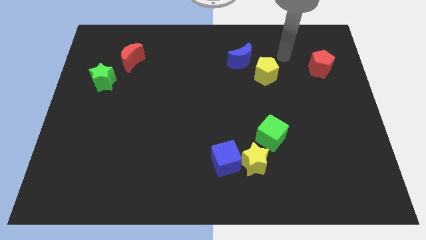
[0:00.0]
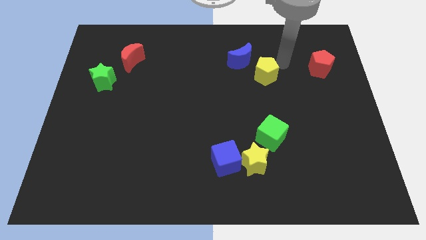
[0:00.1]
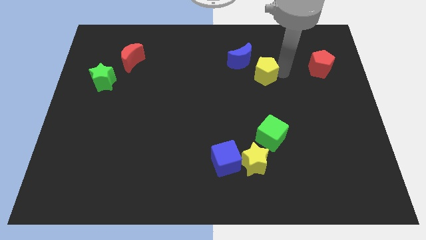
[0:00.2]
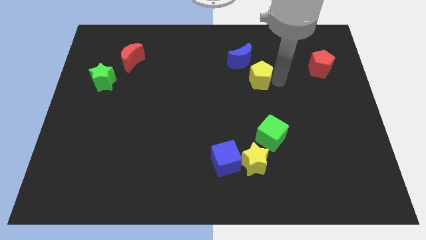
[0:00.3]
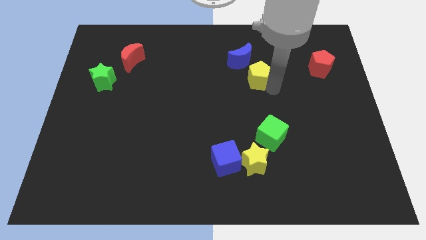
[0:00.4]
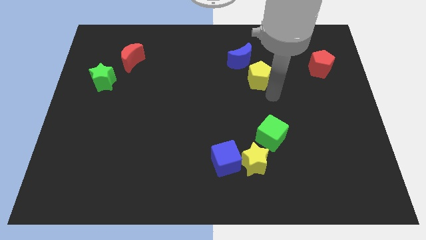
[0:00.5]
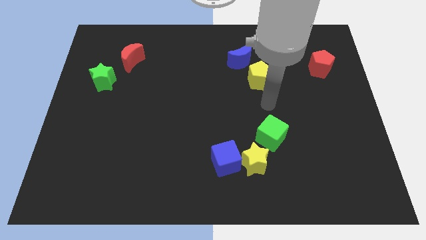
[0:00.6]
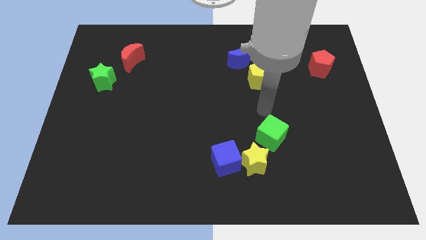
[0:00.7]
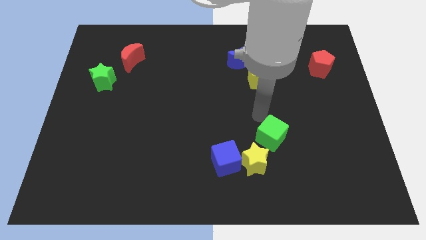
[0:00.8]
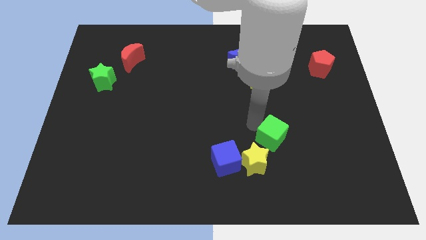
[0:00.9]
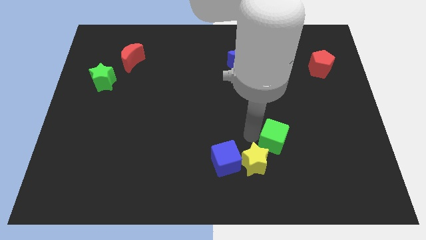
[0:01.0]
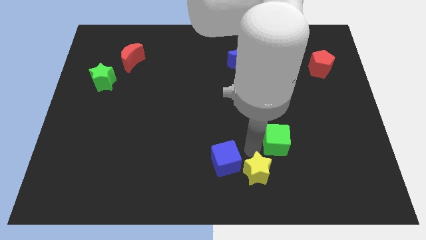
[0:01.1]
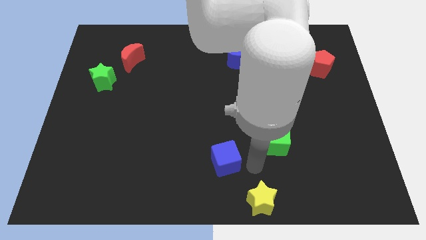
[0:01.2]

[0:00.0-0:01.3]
pull the blue cube apart from the yellow star

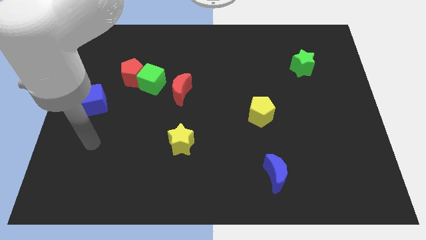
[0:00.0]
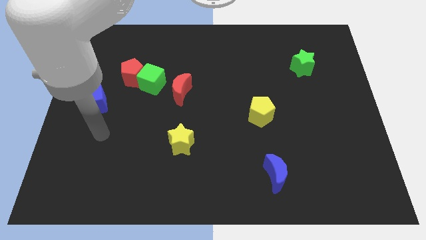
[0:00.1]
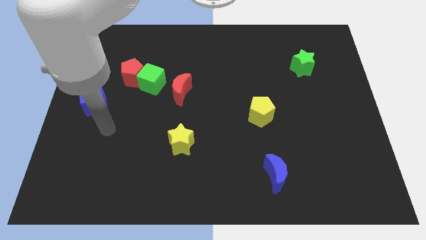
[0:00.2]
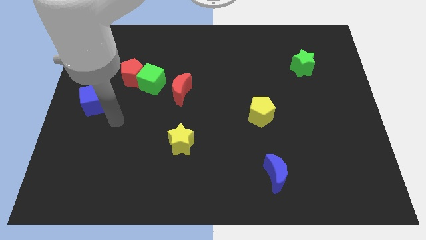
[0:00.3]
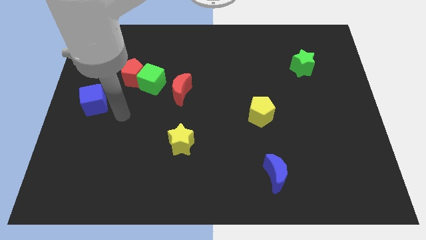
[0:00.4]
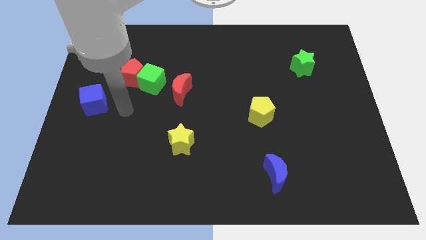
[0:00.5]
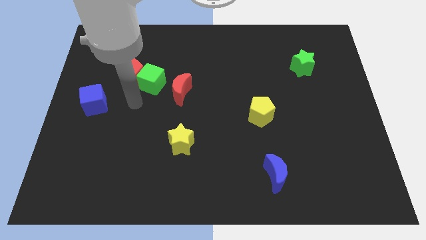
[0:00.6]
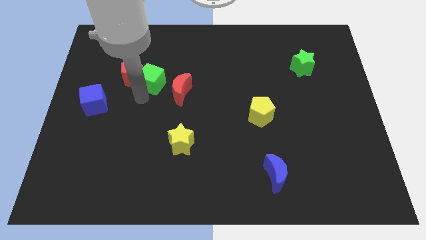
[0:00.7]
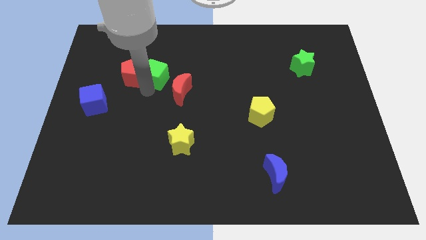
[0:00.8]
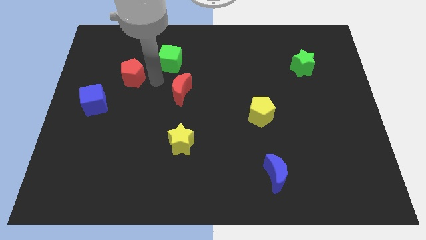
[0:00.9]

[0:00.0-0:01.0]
move the red pentagon away from the green cube

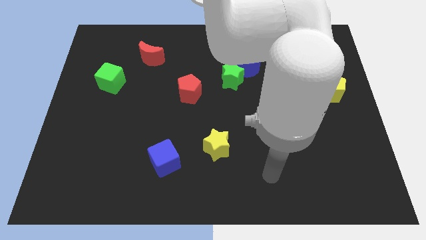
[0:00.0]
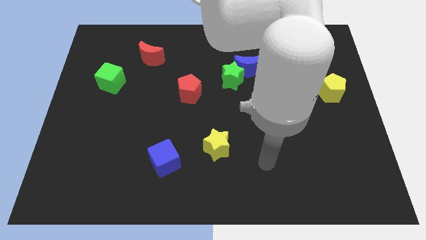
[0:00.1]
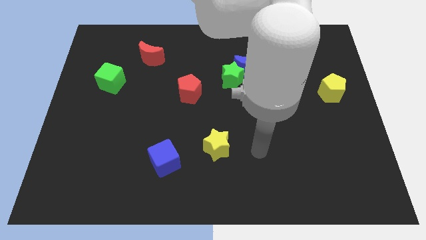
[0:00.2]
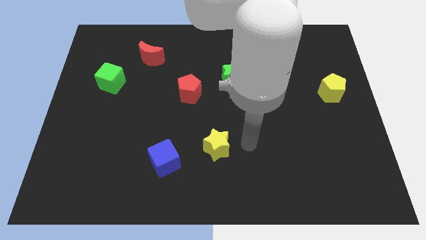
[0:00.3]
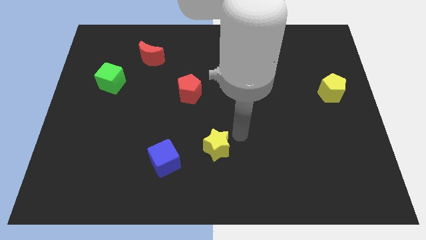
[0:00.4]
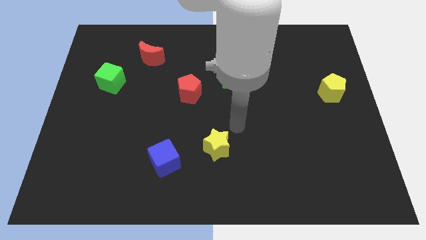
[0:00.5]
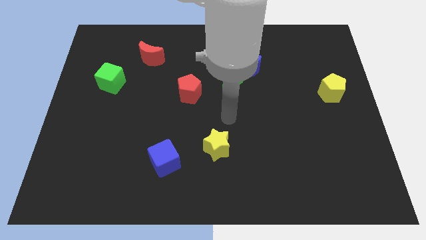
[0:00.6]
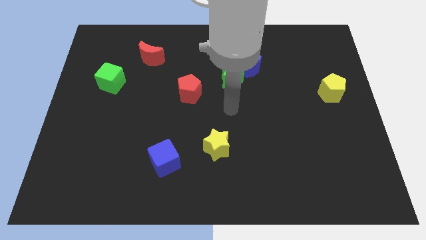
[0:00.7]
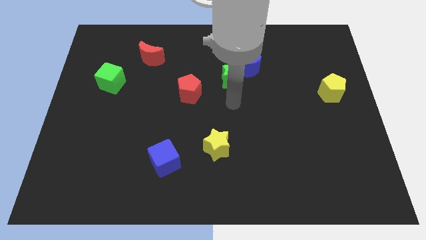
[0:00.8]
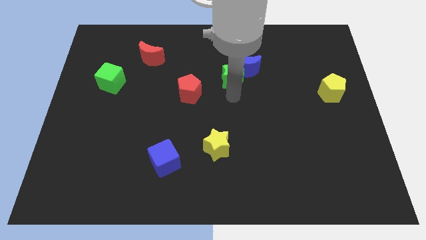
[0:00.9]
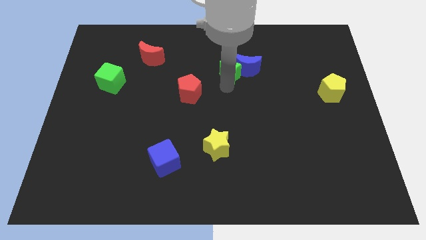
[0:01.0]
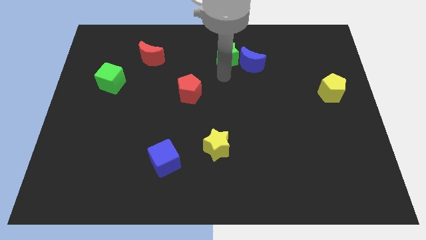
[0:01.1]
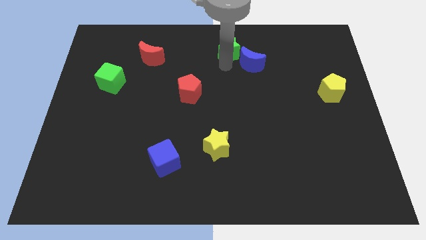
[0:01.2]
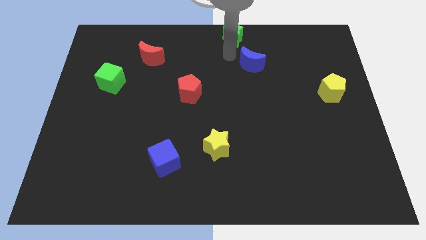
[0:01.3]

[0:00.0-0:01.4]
separate the blue moon from the green star

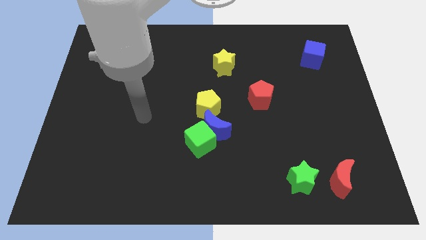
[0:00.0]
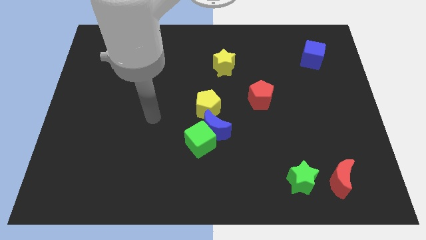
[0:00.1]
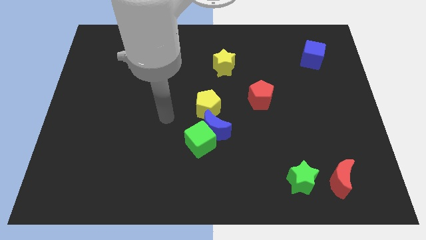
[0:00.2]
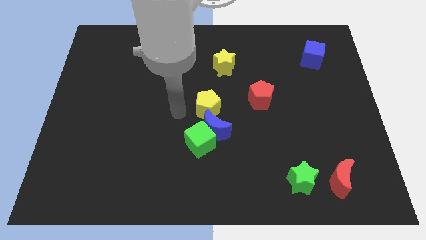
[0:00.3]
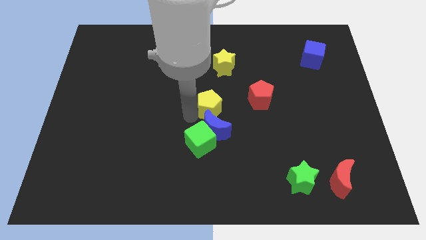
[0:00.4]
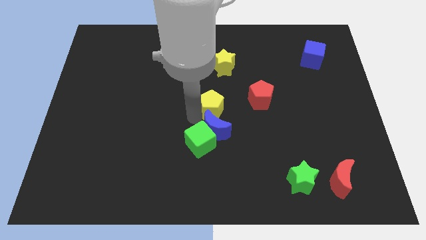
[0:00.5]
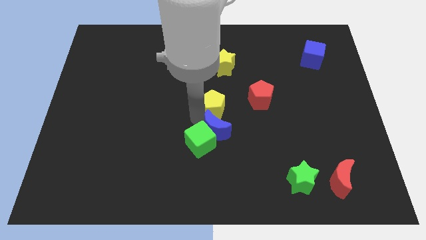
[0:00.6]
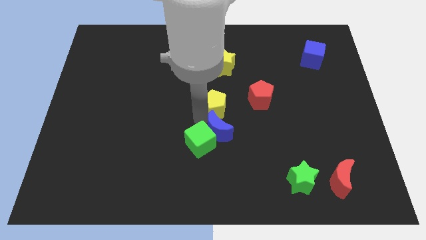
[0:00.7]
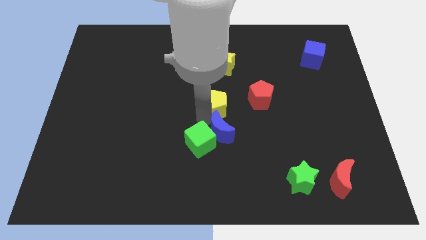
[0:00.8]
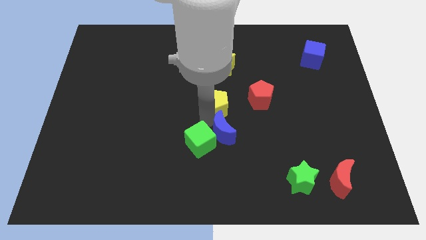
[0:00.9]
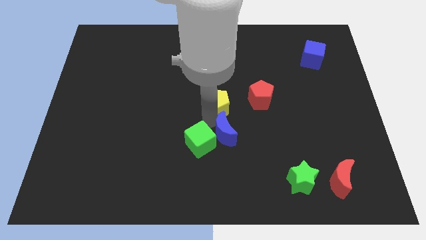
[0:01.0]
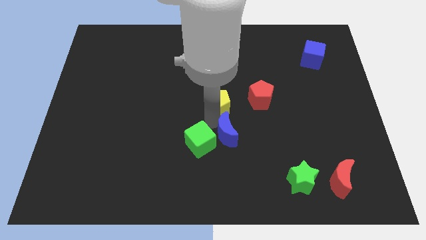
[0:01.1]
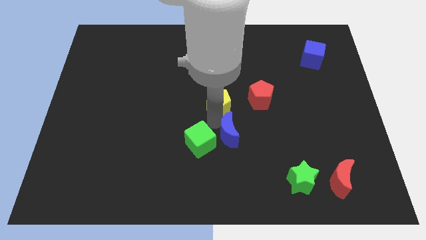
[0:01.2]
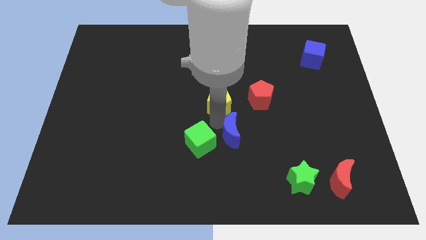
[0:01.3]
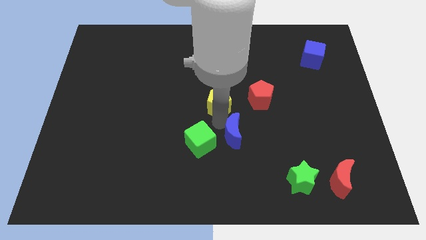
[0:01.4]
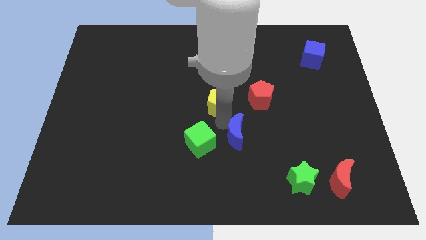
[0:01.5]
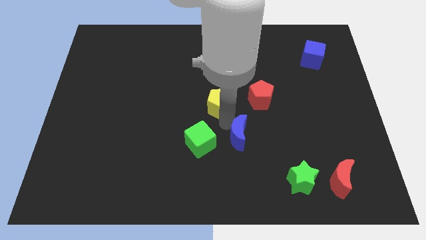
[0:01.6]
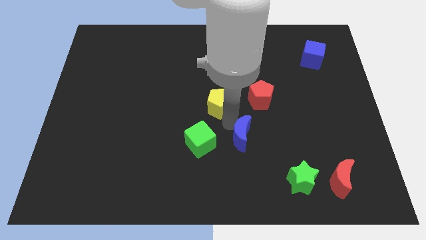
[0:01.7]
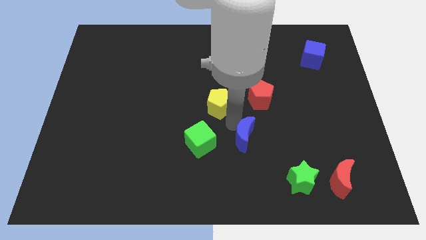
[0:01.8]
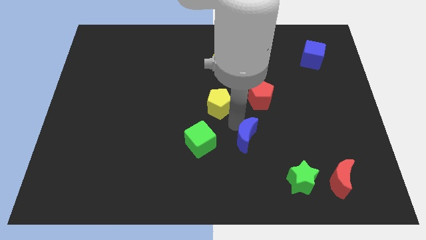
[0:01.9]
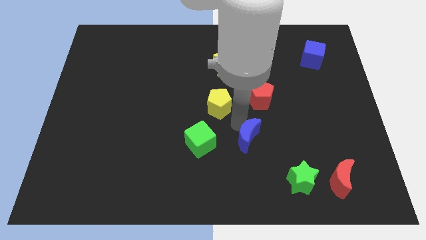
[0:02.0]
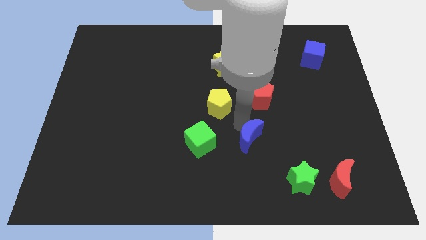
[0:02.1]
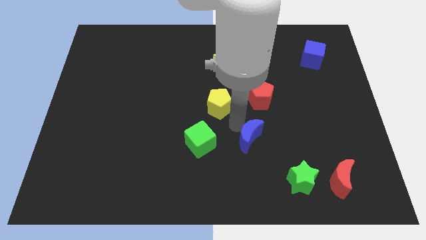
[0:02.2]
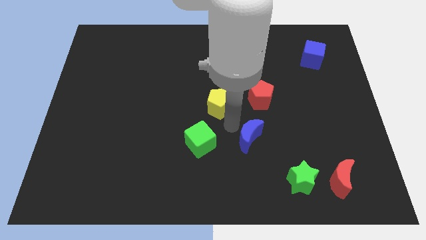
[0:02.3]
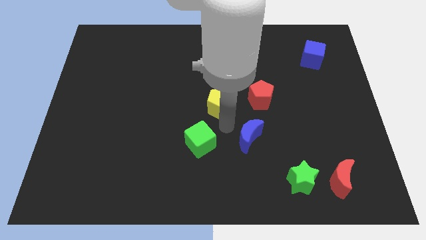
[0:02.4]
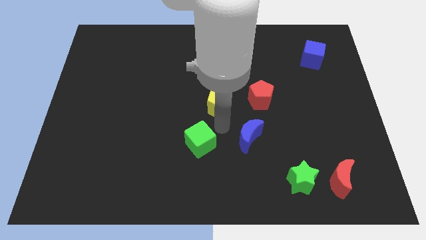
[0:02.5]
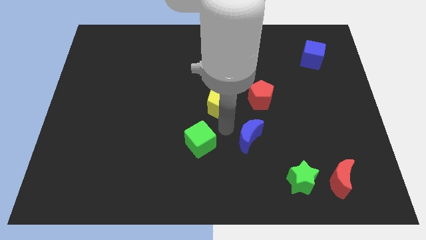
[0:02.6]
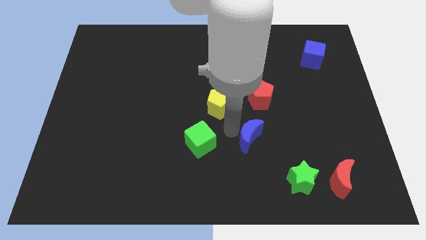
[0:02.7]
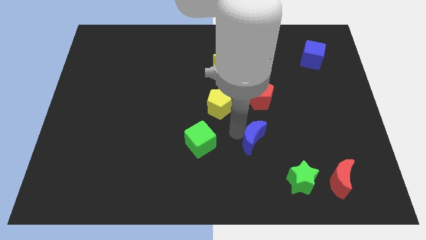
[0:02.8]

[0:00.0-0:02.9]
move the blue moon away from the green cube and yellow pentagon

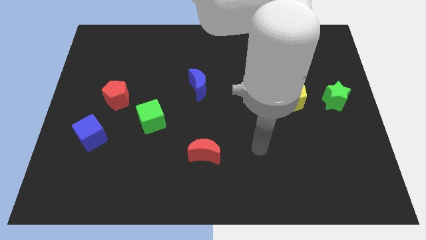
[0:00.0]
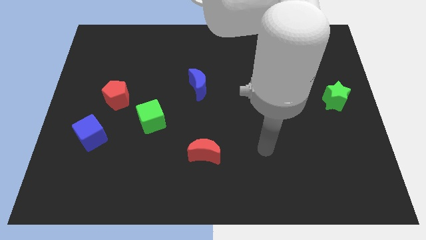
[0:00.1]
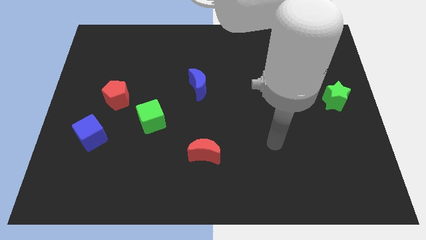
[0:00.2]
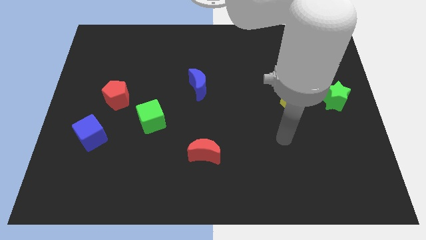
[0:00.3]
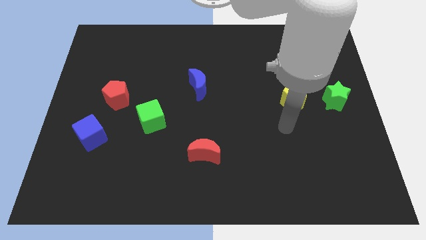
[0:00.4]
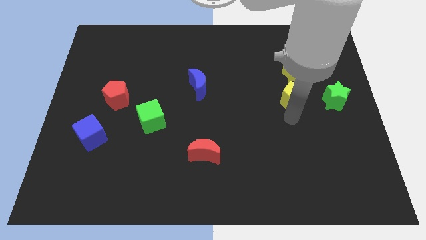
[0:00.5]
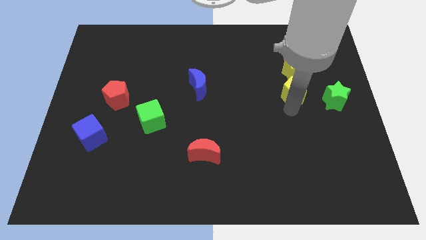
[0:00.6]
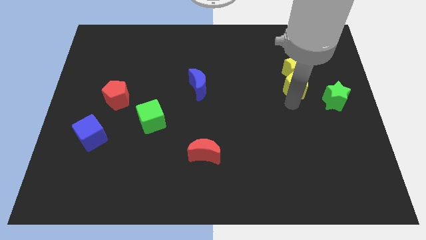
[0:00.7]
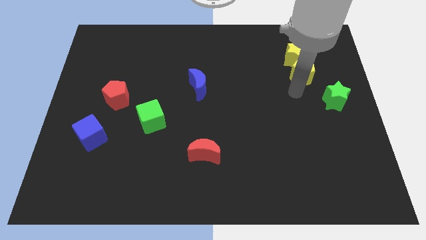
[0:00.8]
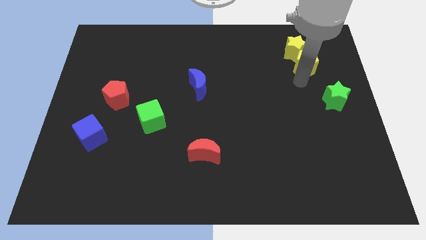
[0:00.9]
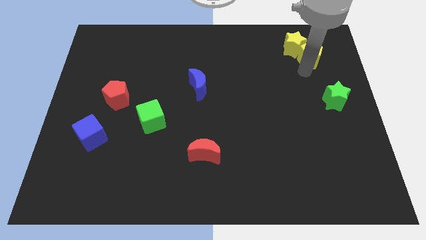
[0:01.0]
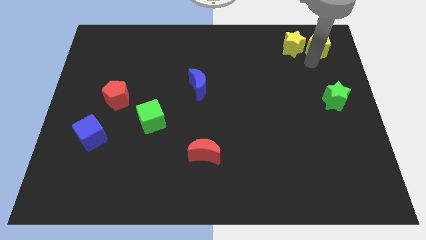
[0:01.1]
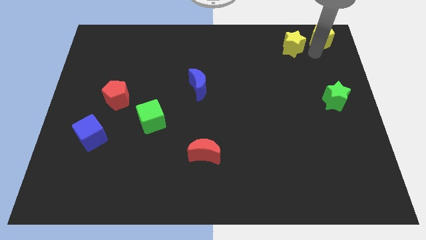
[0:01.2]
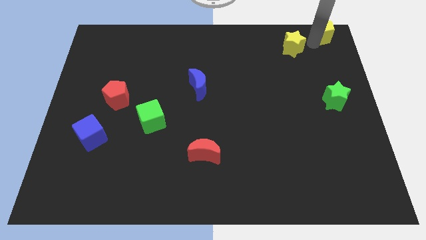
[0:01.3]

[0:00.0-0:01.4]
move the yellow star away from the yellow pentagon

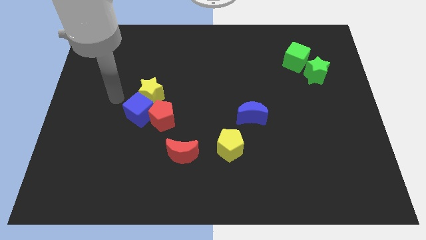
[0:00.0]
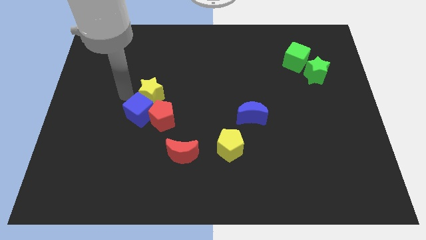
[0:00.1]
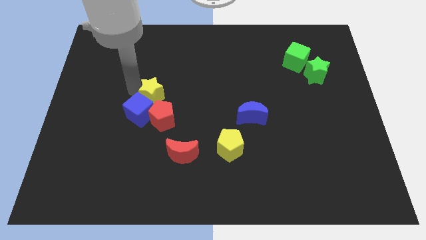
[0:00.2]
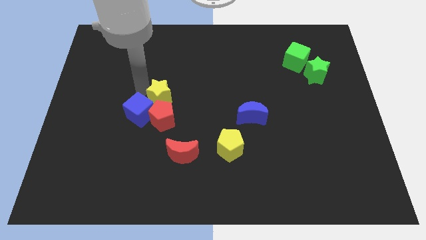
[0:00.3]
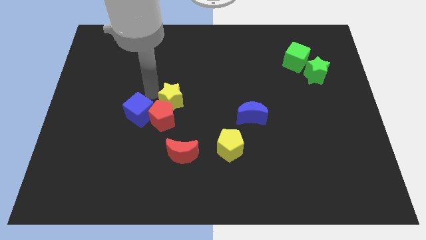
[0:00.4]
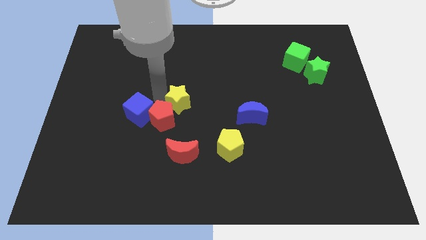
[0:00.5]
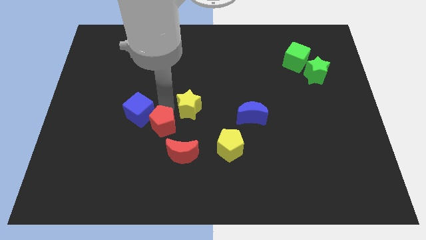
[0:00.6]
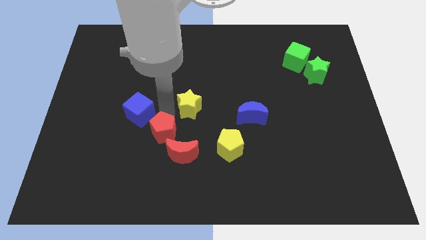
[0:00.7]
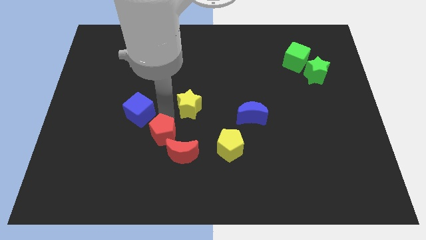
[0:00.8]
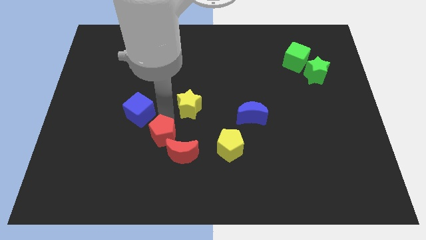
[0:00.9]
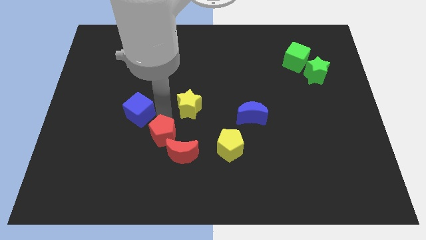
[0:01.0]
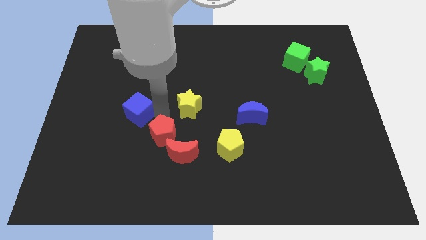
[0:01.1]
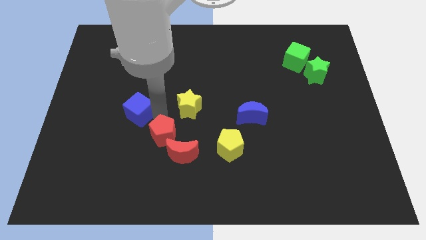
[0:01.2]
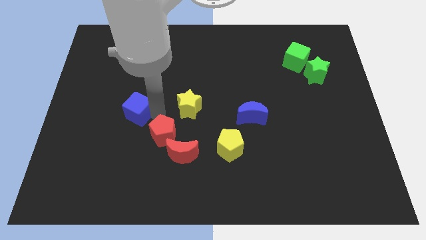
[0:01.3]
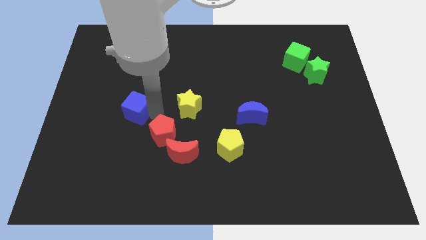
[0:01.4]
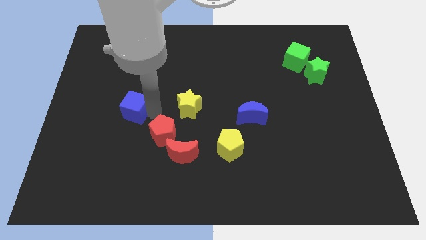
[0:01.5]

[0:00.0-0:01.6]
pull the blue cube apart from the red pentagon and yellow star
